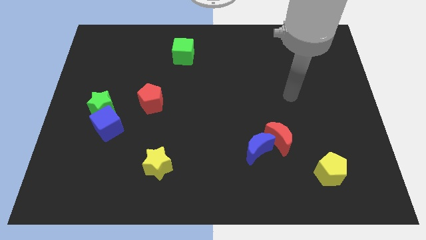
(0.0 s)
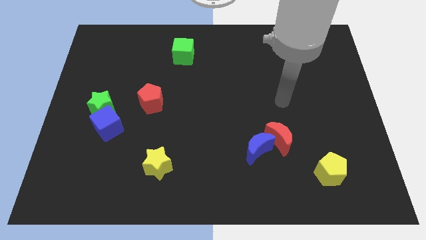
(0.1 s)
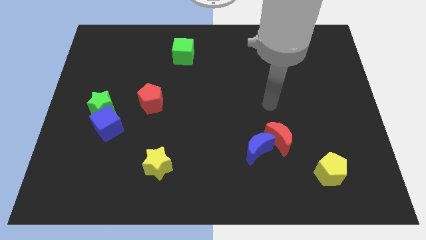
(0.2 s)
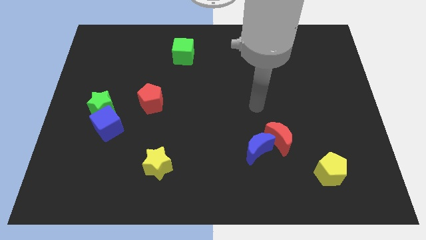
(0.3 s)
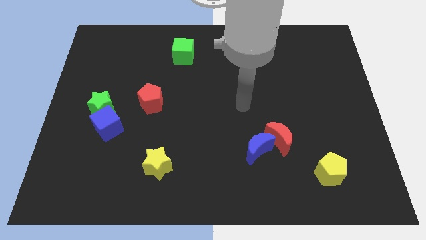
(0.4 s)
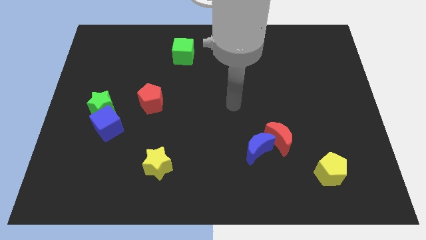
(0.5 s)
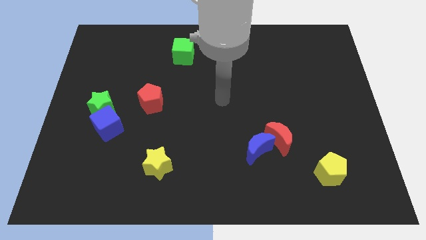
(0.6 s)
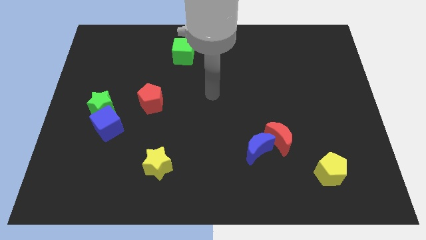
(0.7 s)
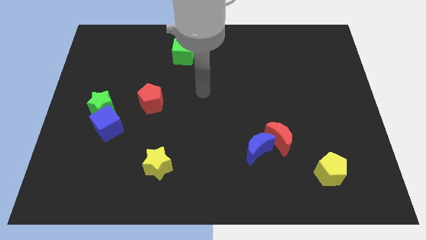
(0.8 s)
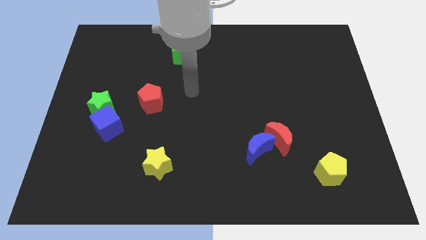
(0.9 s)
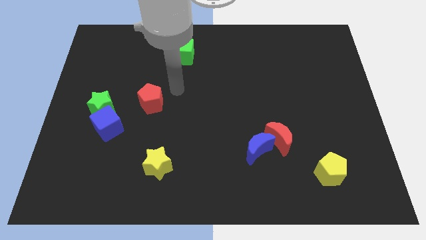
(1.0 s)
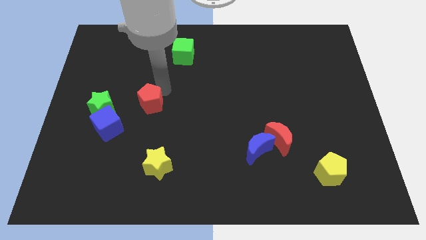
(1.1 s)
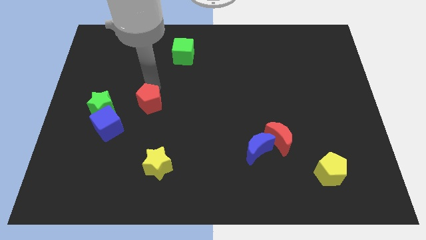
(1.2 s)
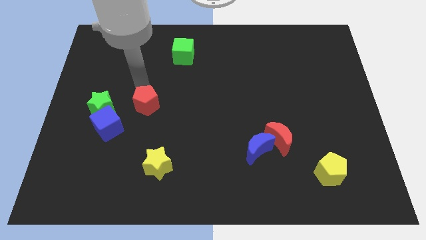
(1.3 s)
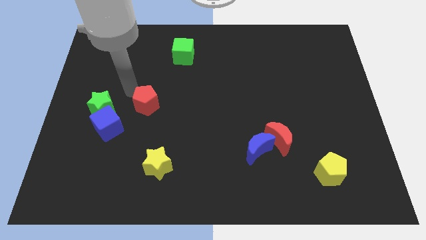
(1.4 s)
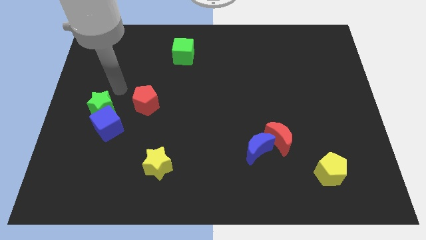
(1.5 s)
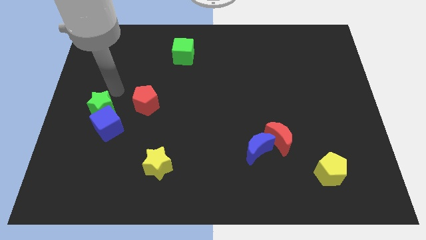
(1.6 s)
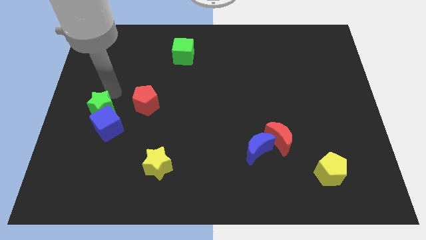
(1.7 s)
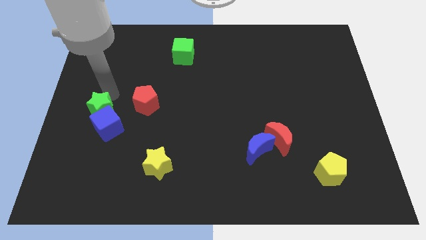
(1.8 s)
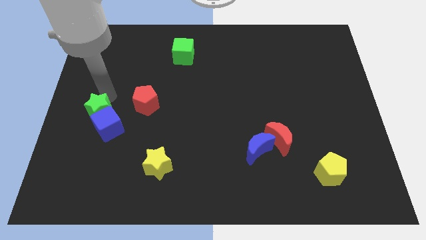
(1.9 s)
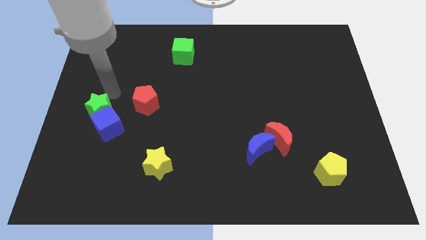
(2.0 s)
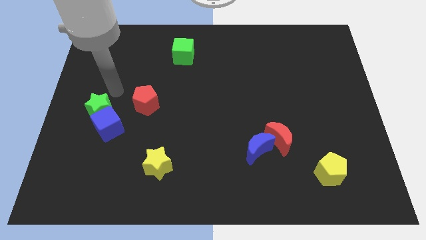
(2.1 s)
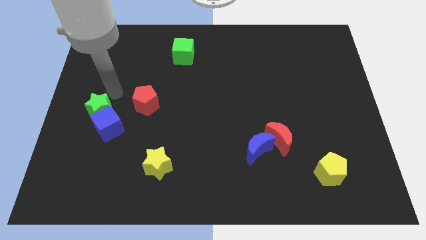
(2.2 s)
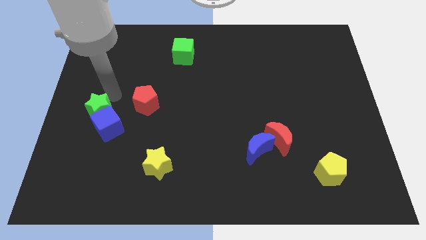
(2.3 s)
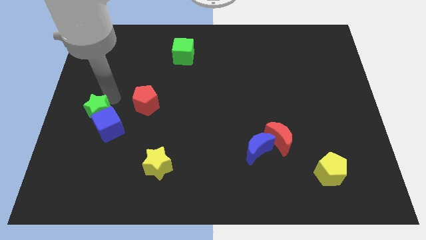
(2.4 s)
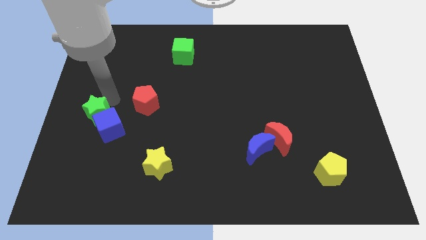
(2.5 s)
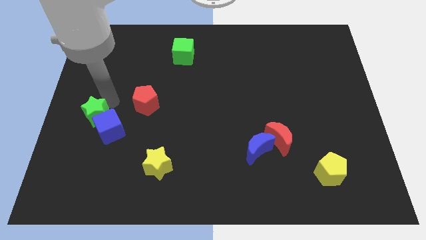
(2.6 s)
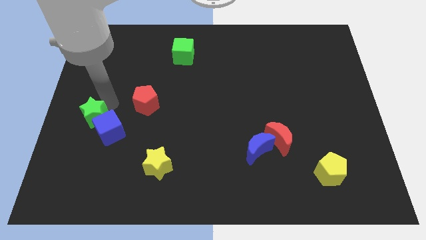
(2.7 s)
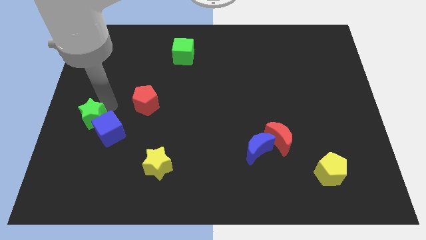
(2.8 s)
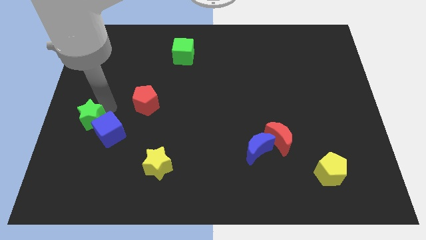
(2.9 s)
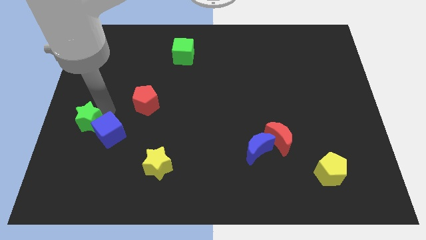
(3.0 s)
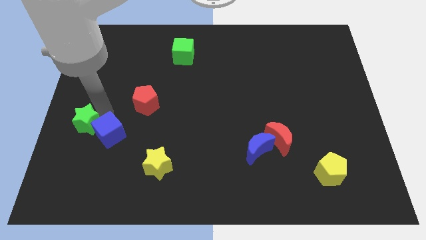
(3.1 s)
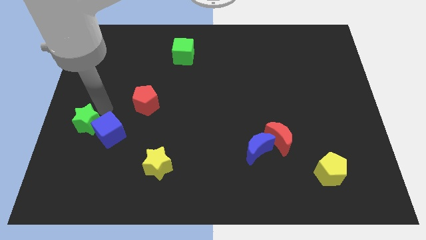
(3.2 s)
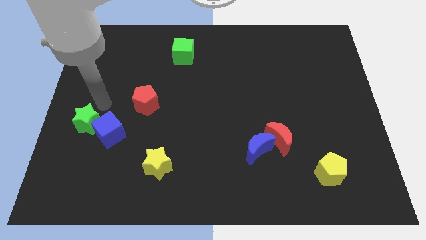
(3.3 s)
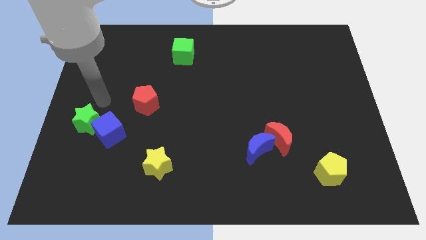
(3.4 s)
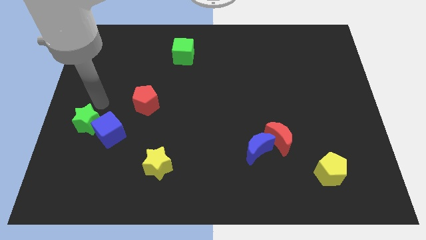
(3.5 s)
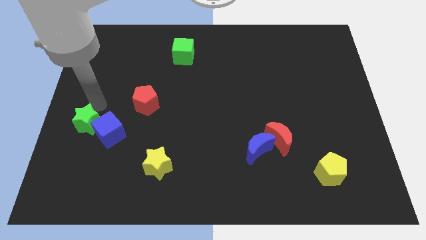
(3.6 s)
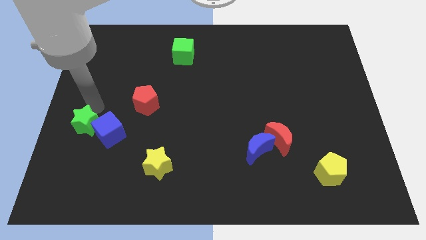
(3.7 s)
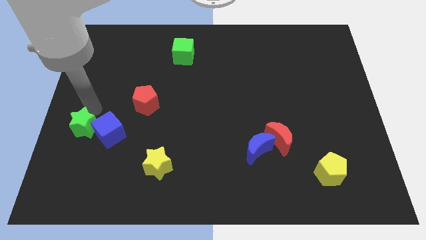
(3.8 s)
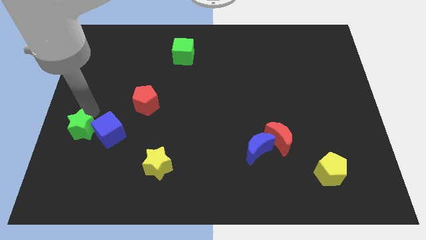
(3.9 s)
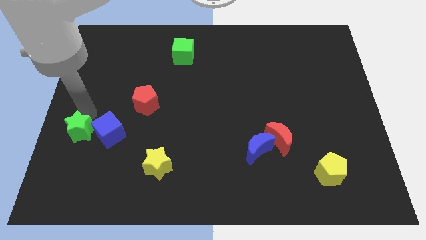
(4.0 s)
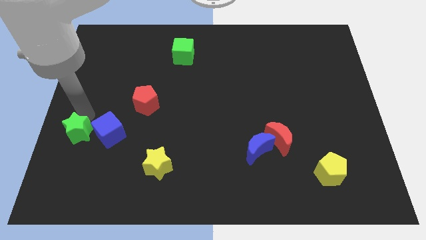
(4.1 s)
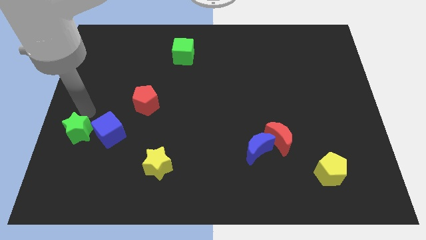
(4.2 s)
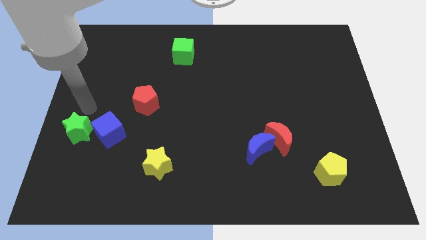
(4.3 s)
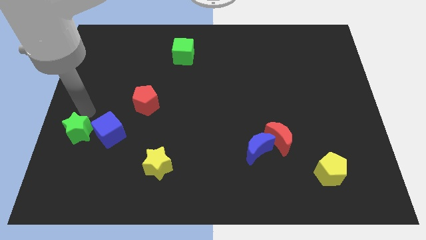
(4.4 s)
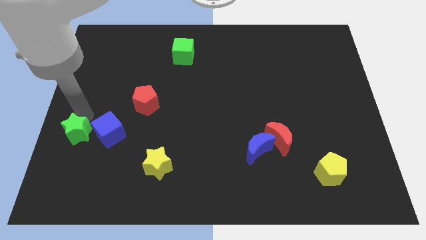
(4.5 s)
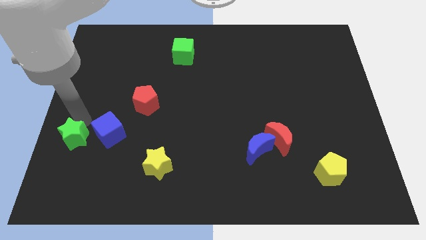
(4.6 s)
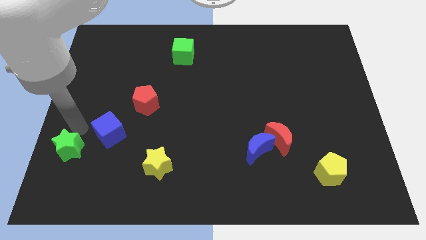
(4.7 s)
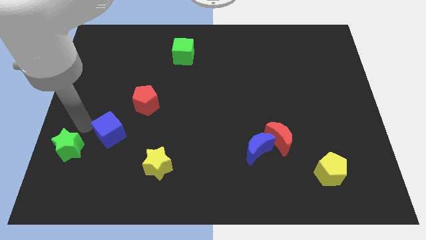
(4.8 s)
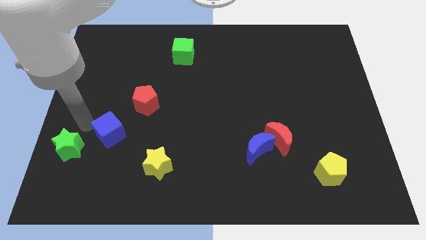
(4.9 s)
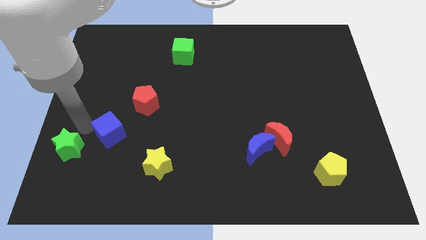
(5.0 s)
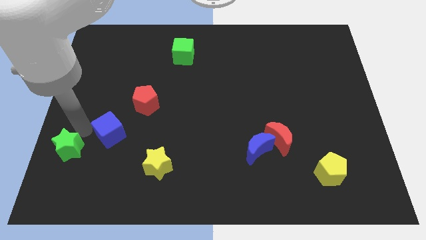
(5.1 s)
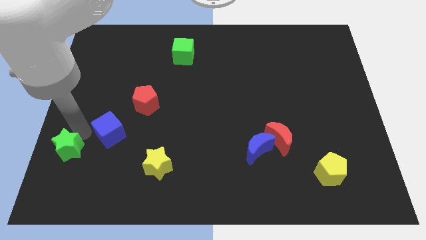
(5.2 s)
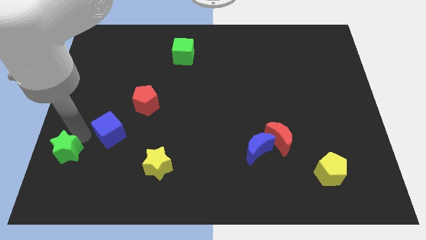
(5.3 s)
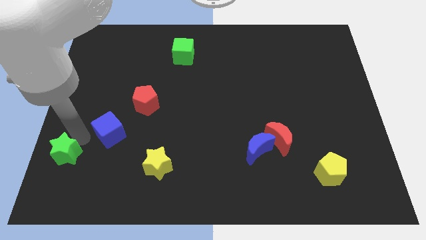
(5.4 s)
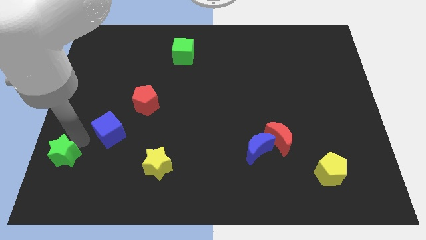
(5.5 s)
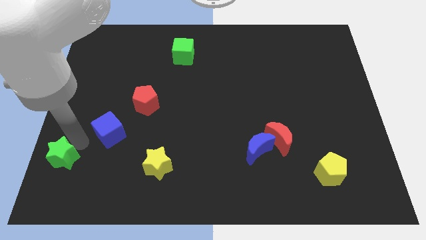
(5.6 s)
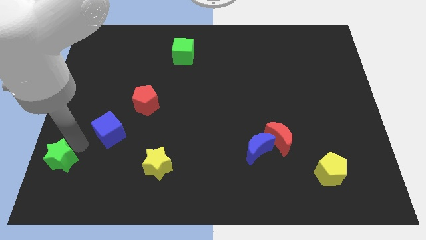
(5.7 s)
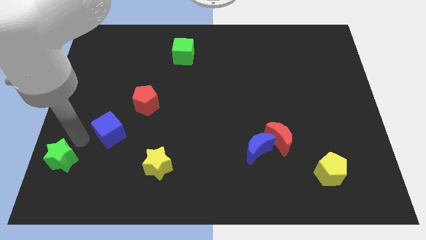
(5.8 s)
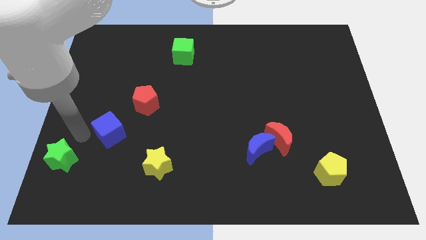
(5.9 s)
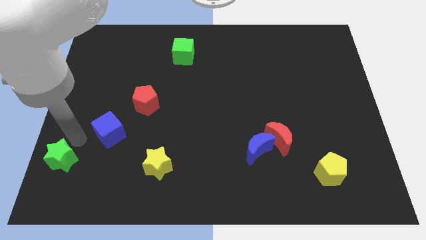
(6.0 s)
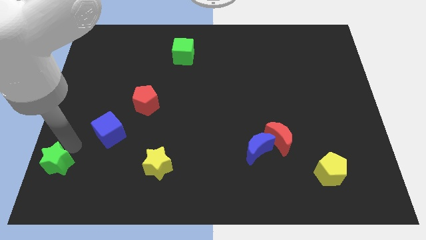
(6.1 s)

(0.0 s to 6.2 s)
push the green star to the lower left corner
